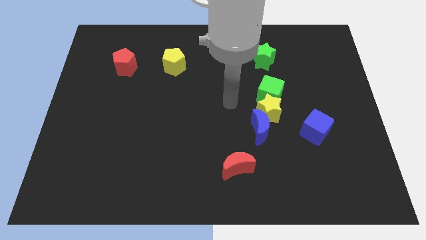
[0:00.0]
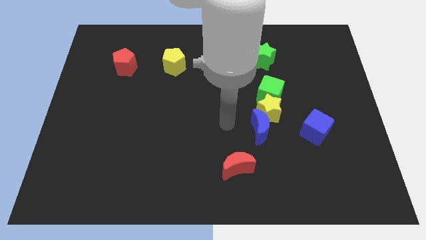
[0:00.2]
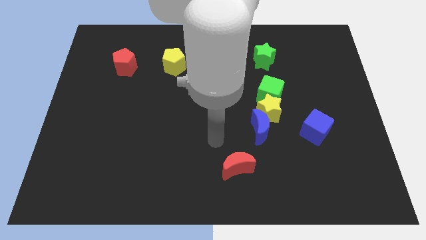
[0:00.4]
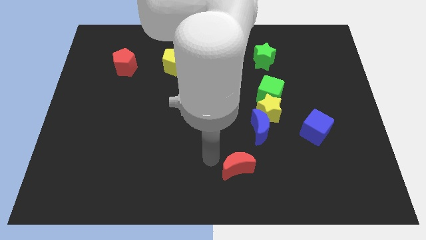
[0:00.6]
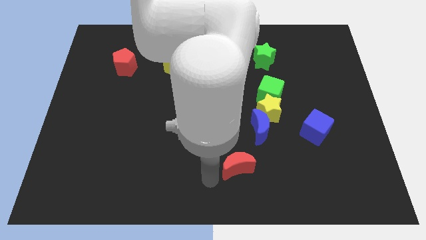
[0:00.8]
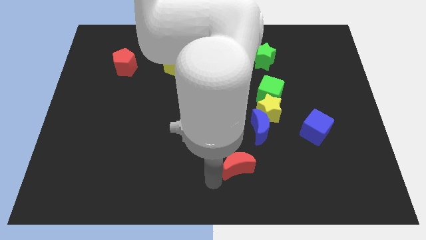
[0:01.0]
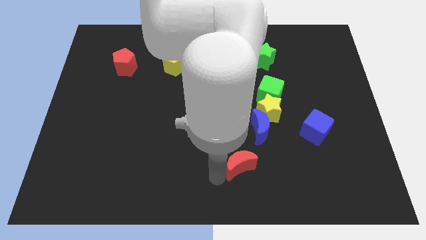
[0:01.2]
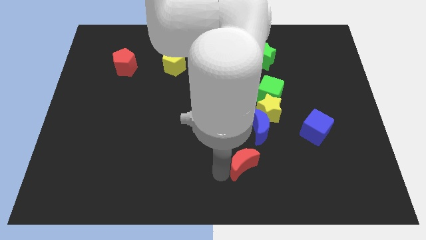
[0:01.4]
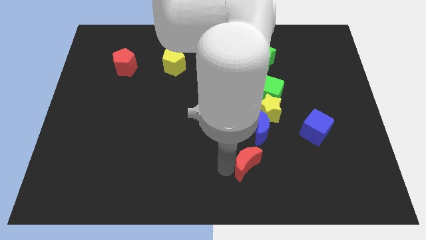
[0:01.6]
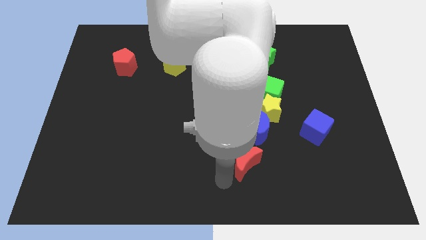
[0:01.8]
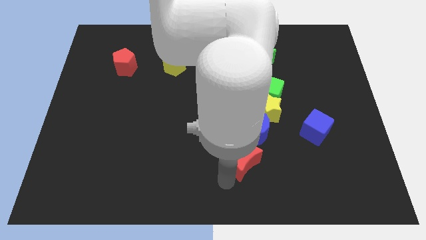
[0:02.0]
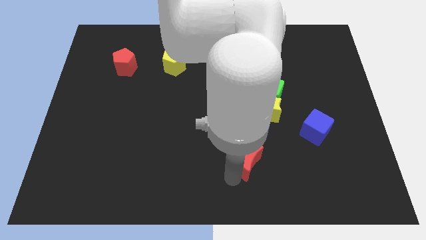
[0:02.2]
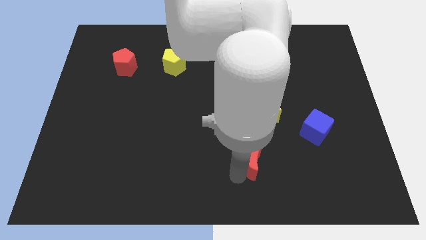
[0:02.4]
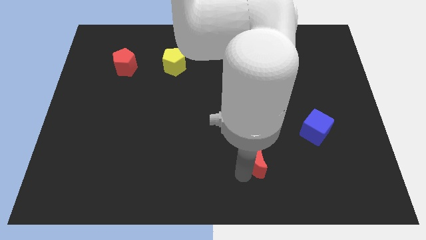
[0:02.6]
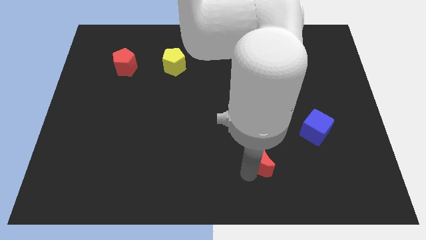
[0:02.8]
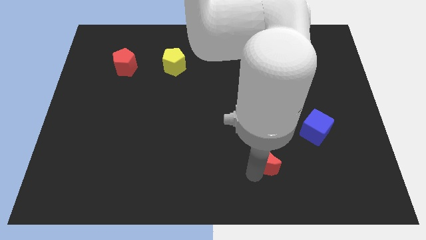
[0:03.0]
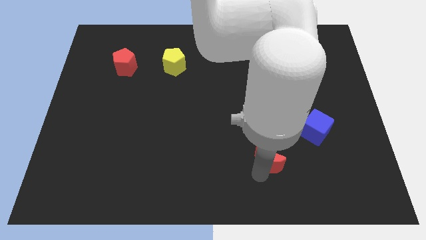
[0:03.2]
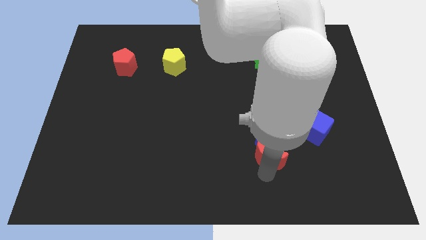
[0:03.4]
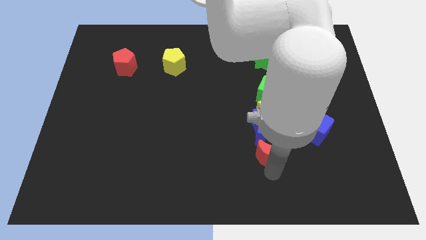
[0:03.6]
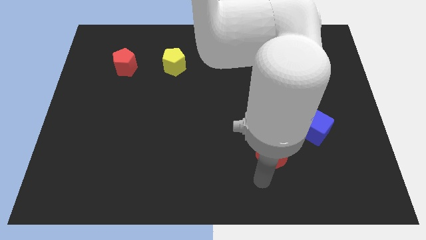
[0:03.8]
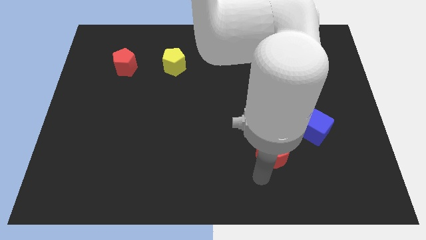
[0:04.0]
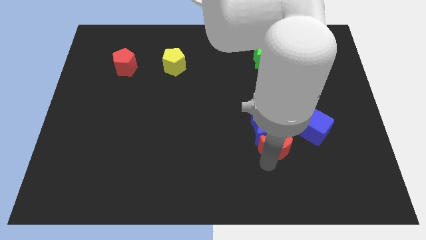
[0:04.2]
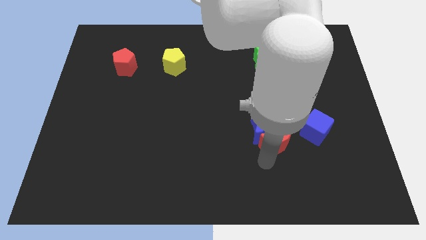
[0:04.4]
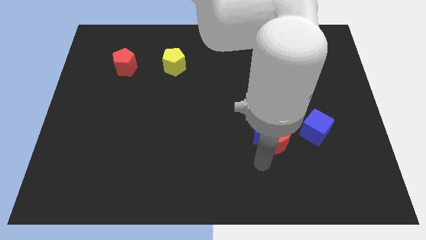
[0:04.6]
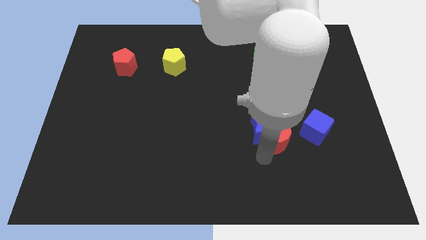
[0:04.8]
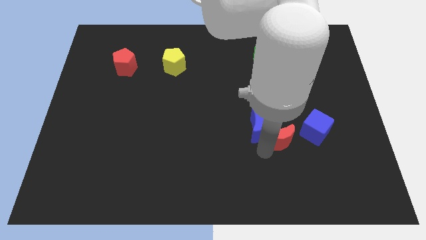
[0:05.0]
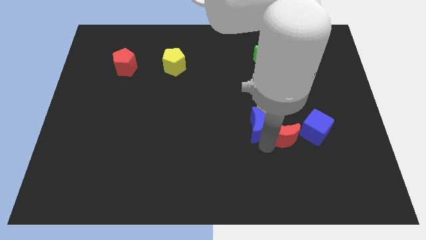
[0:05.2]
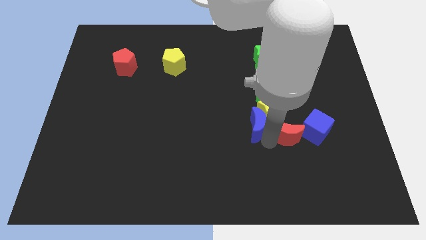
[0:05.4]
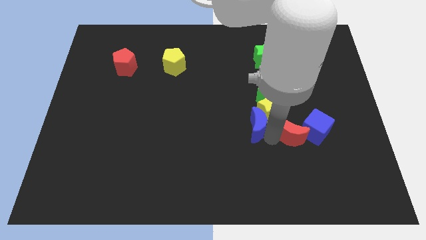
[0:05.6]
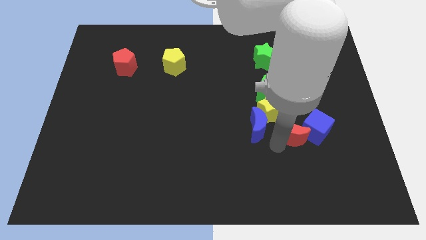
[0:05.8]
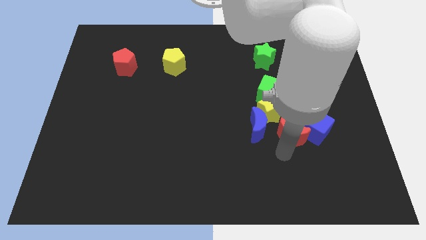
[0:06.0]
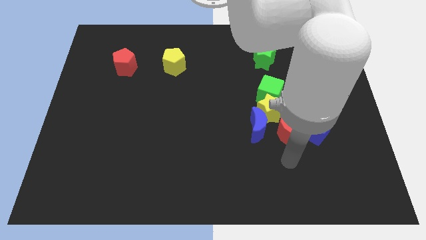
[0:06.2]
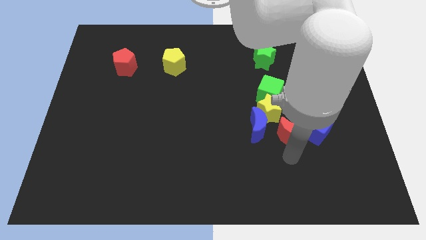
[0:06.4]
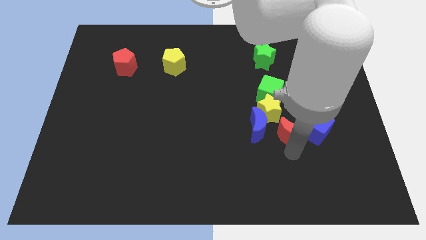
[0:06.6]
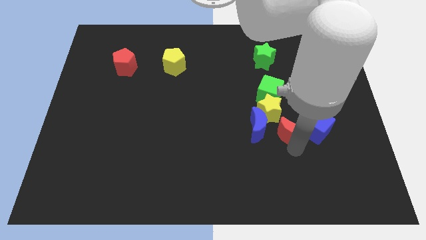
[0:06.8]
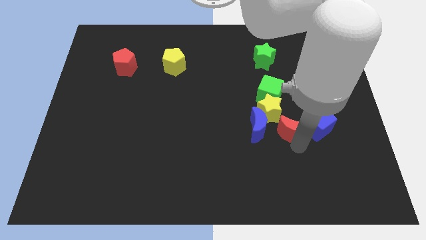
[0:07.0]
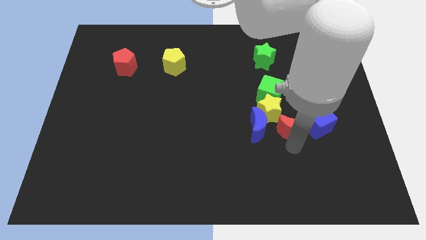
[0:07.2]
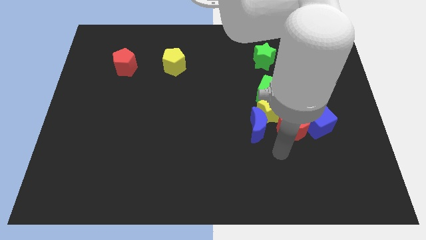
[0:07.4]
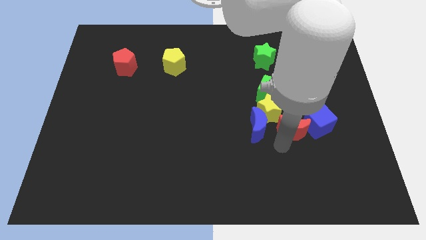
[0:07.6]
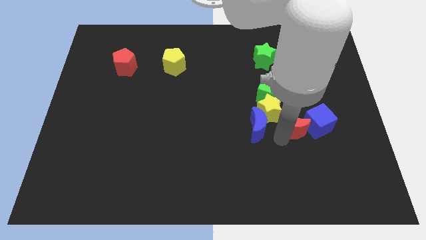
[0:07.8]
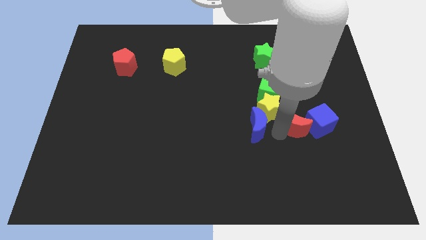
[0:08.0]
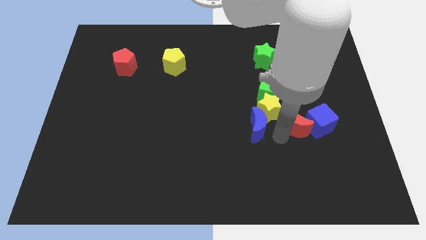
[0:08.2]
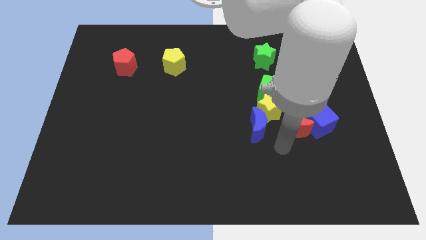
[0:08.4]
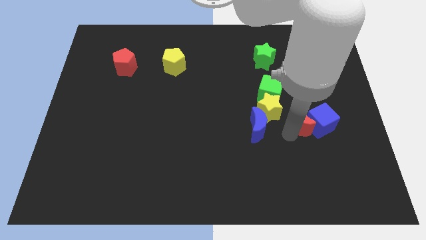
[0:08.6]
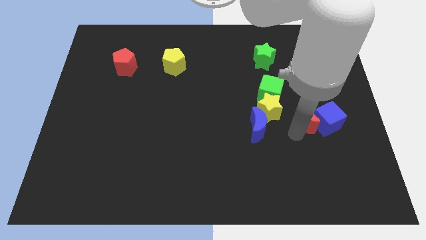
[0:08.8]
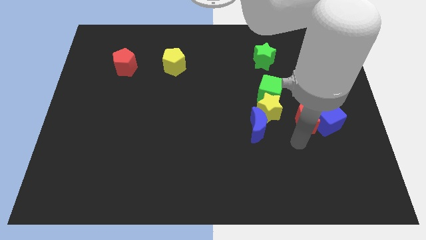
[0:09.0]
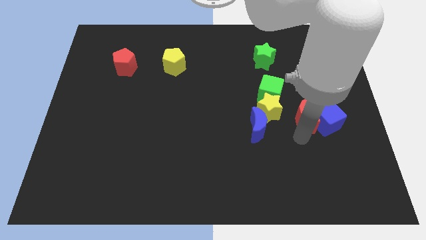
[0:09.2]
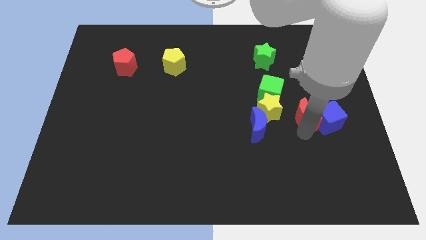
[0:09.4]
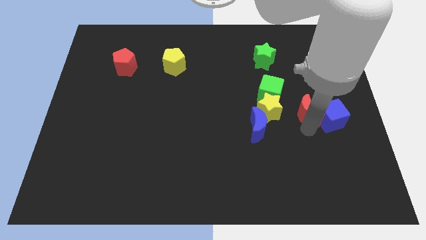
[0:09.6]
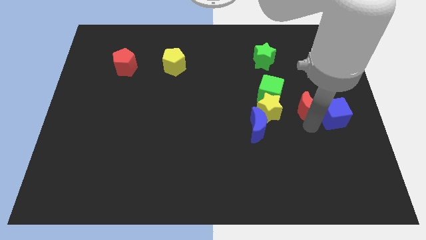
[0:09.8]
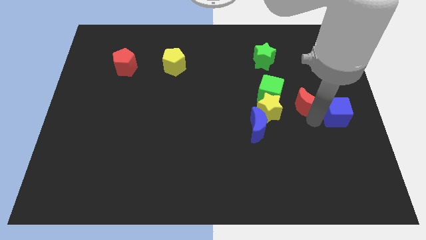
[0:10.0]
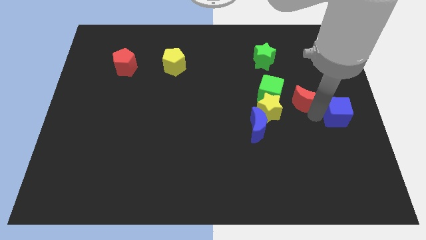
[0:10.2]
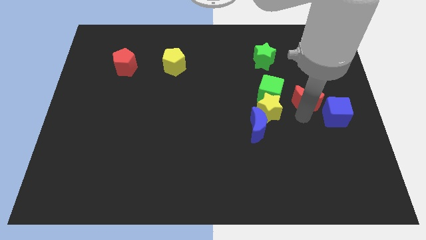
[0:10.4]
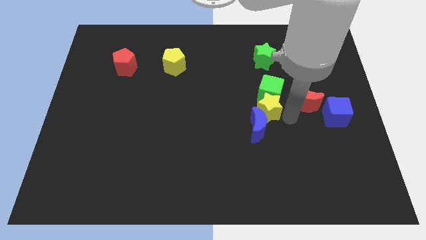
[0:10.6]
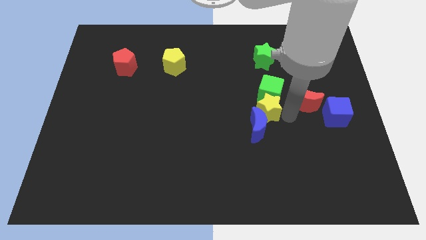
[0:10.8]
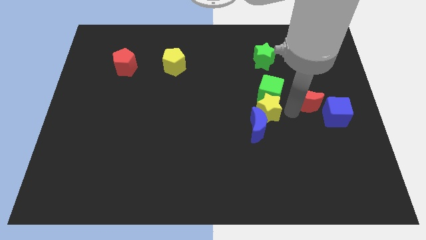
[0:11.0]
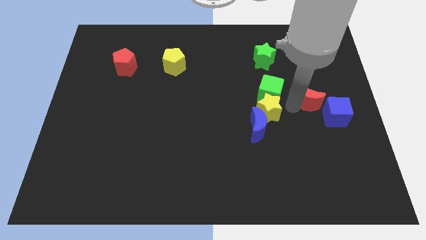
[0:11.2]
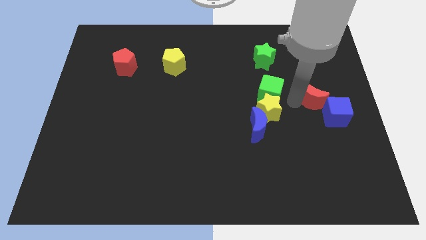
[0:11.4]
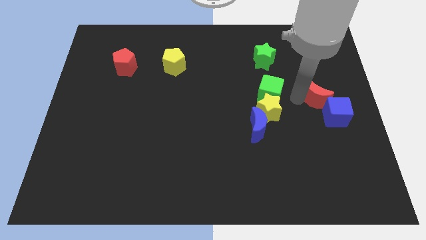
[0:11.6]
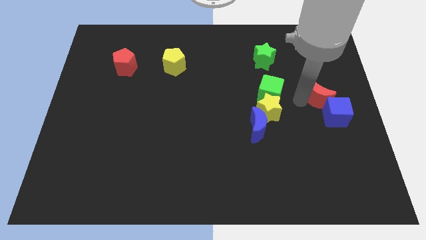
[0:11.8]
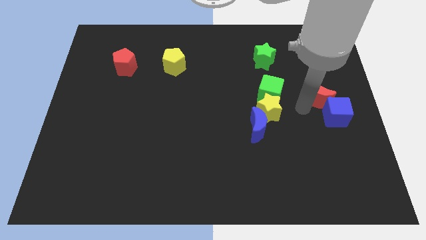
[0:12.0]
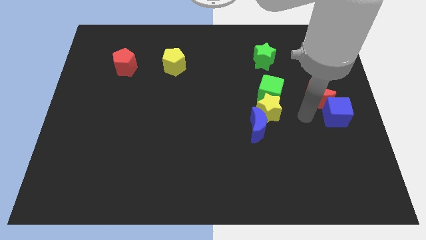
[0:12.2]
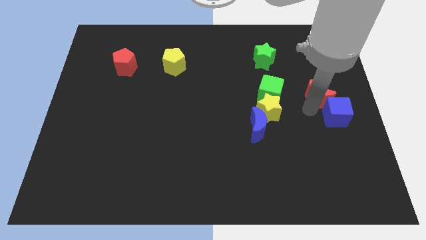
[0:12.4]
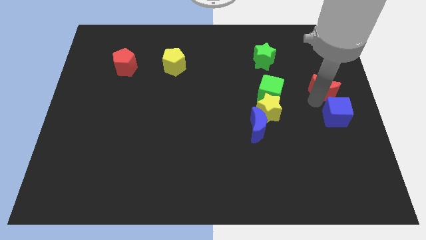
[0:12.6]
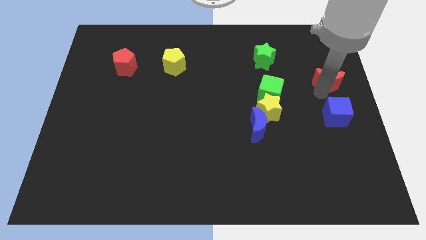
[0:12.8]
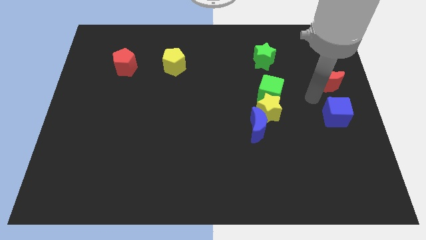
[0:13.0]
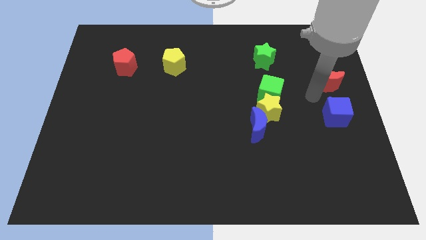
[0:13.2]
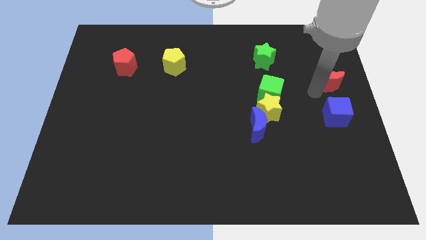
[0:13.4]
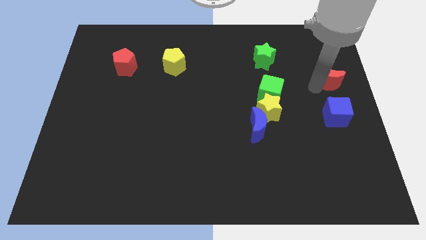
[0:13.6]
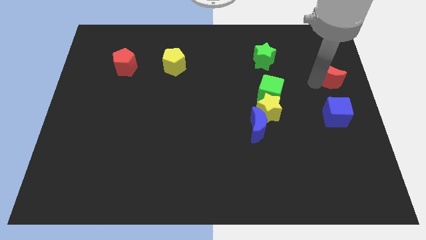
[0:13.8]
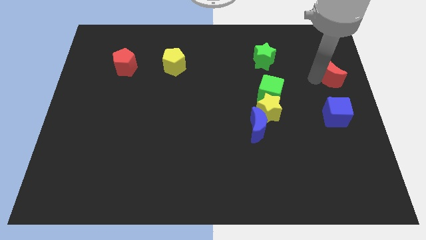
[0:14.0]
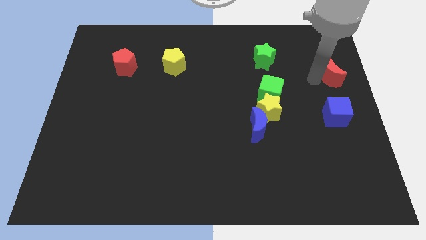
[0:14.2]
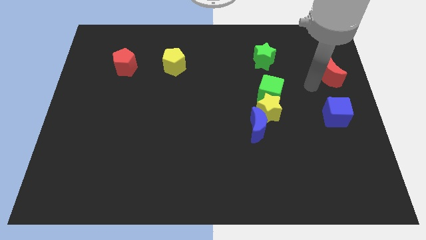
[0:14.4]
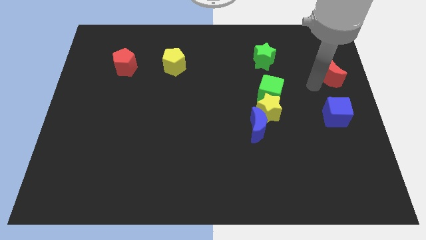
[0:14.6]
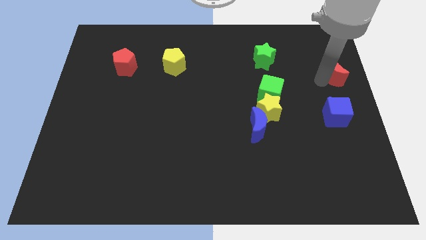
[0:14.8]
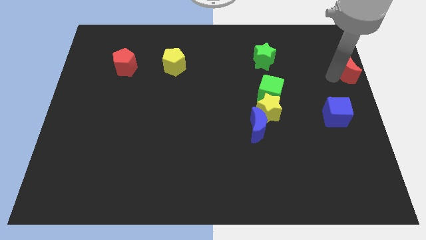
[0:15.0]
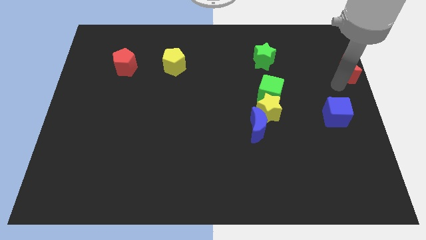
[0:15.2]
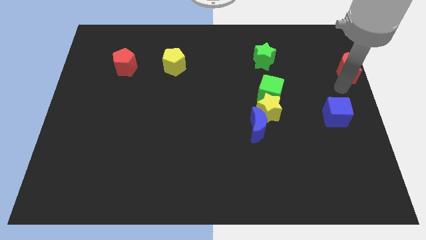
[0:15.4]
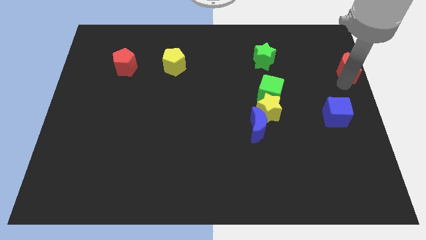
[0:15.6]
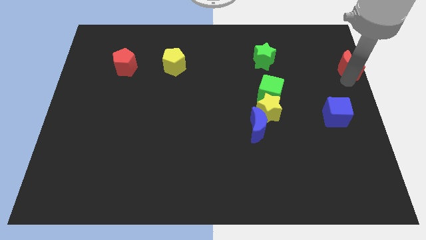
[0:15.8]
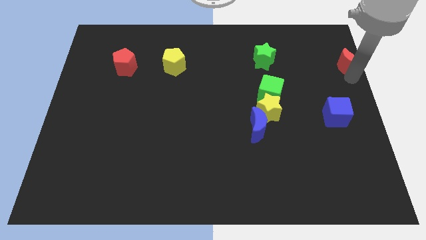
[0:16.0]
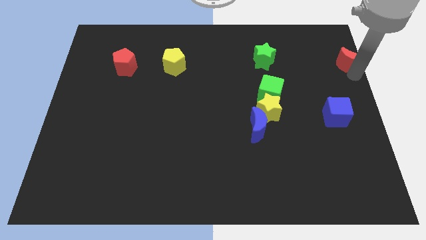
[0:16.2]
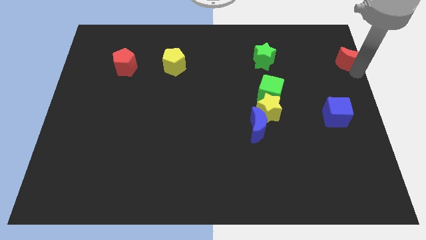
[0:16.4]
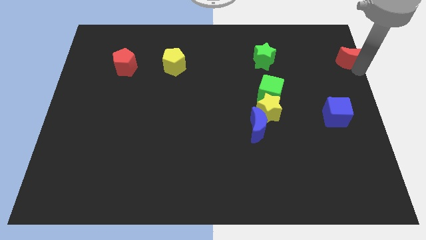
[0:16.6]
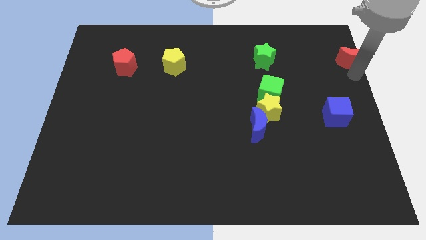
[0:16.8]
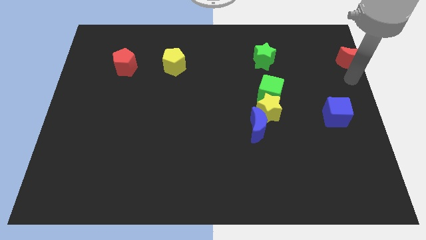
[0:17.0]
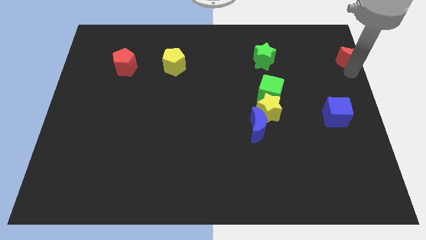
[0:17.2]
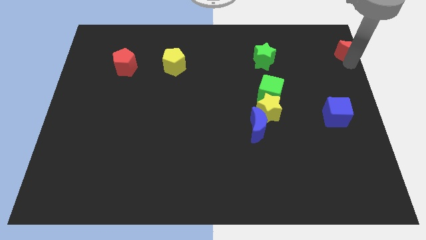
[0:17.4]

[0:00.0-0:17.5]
push the red moon to the top right corner
